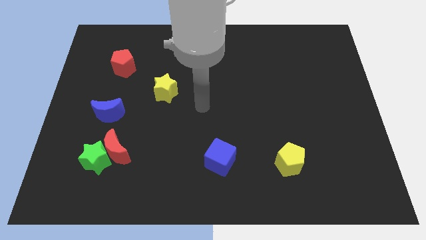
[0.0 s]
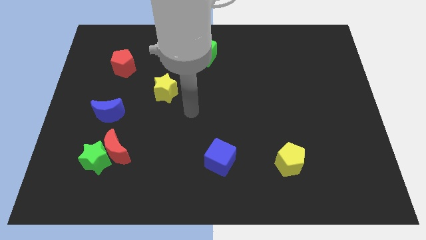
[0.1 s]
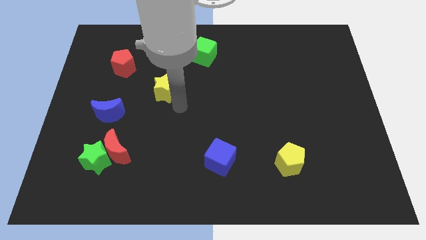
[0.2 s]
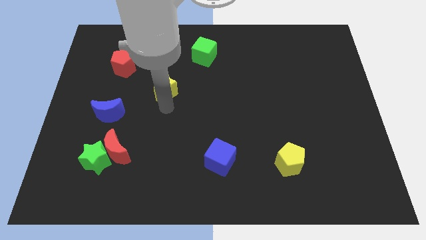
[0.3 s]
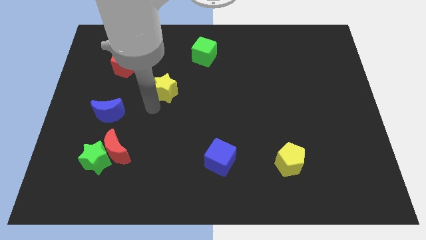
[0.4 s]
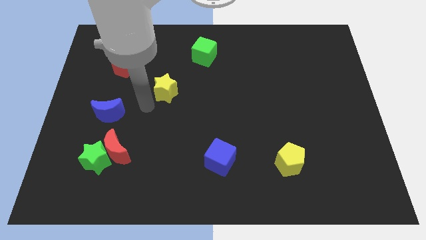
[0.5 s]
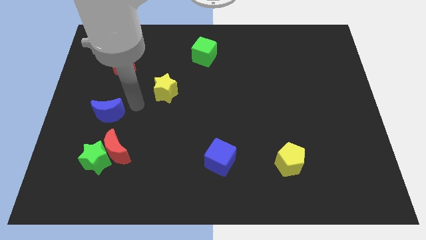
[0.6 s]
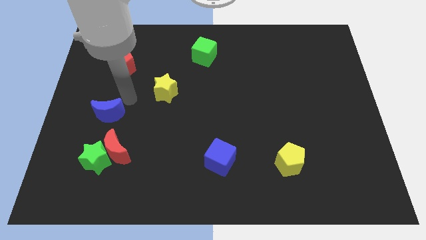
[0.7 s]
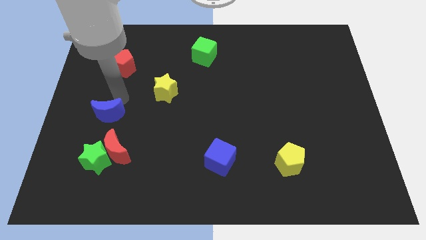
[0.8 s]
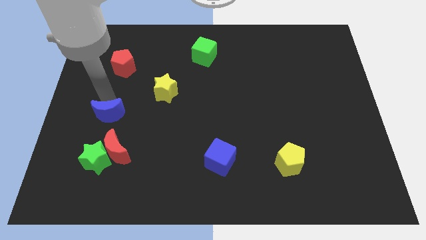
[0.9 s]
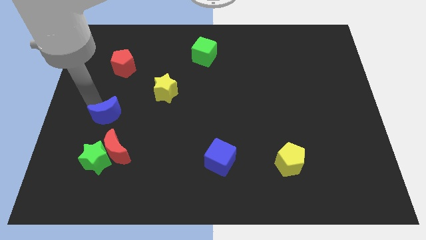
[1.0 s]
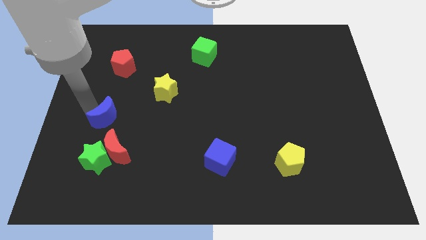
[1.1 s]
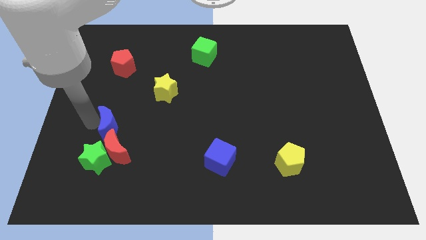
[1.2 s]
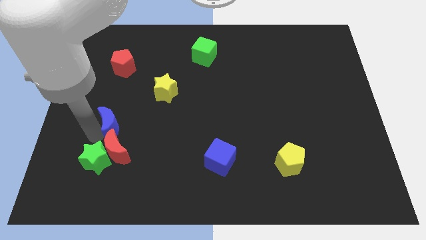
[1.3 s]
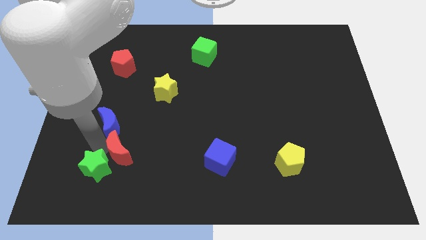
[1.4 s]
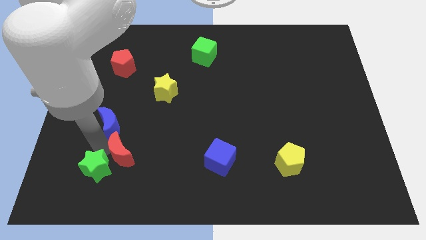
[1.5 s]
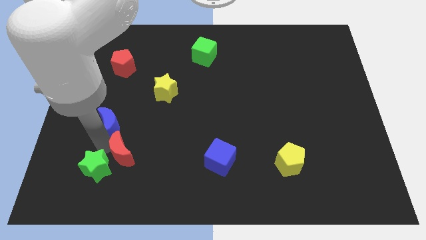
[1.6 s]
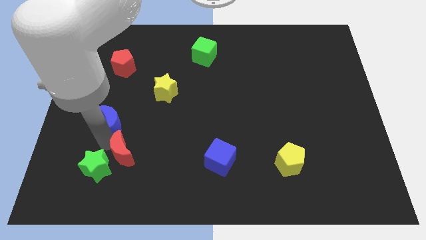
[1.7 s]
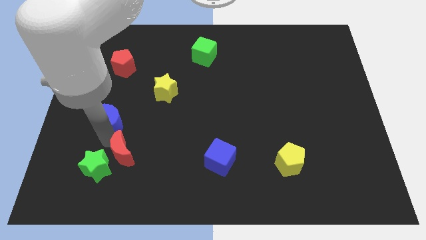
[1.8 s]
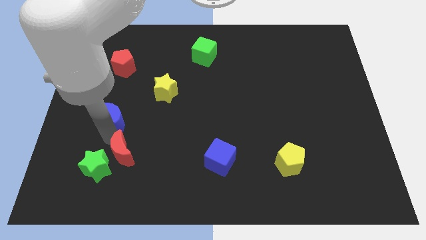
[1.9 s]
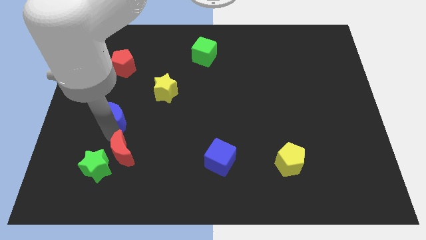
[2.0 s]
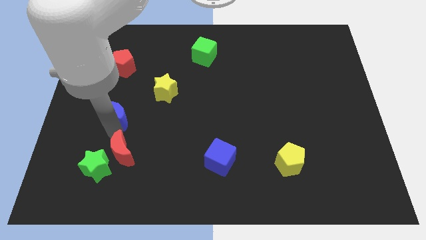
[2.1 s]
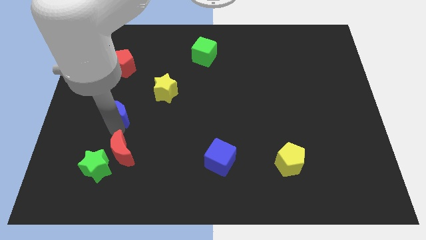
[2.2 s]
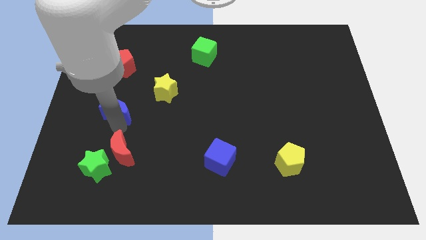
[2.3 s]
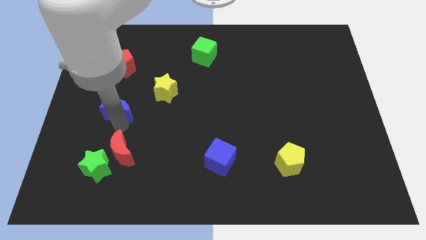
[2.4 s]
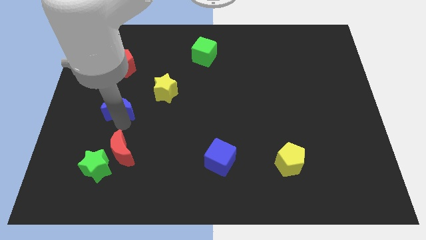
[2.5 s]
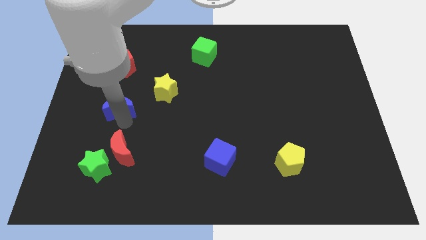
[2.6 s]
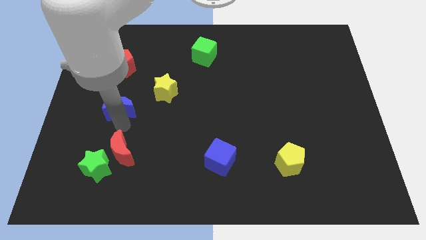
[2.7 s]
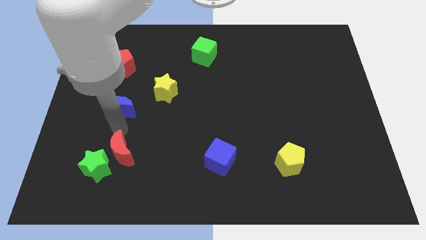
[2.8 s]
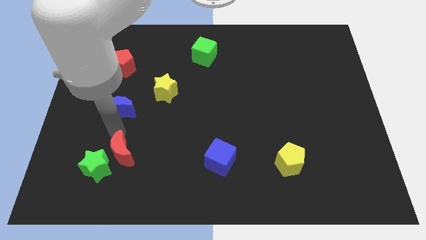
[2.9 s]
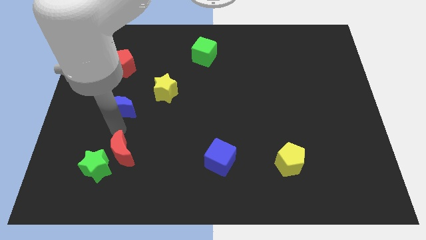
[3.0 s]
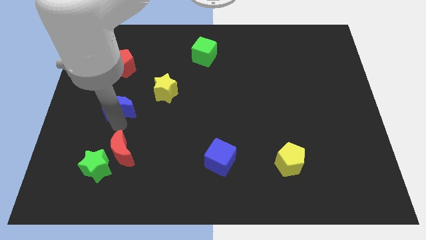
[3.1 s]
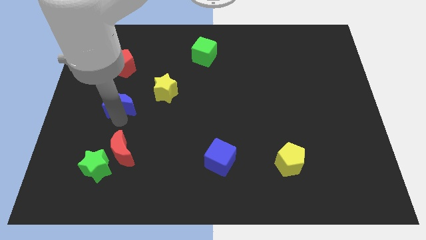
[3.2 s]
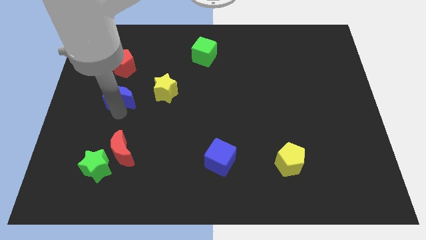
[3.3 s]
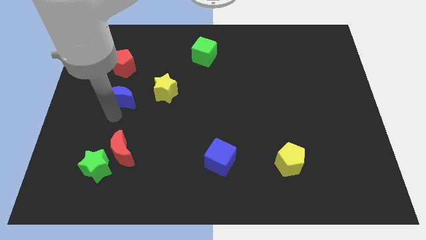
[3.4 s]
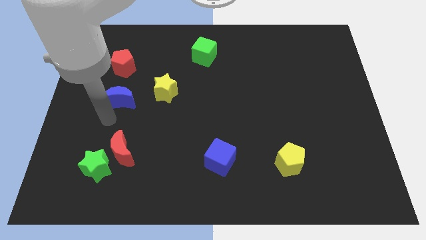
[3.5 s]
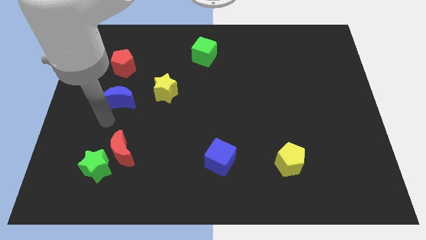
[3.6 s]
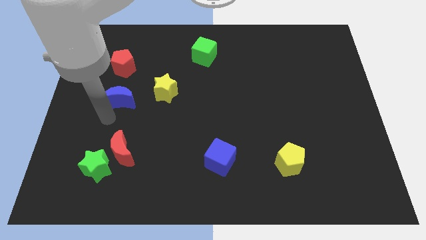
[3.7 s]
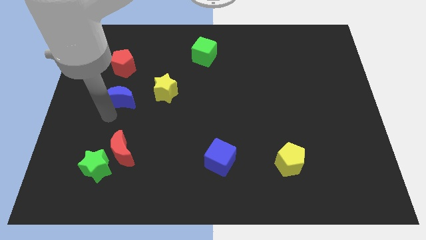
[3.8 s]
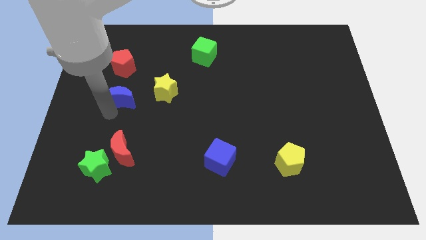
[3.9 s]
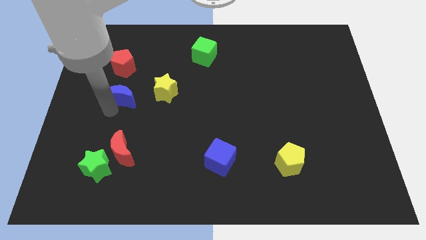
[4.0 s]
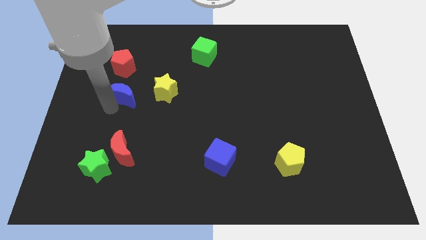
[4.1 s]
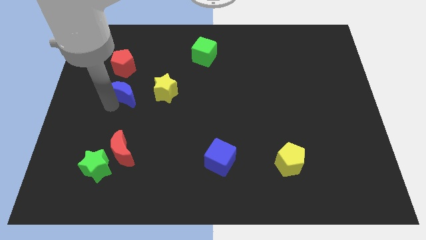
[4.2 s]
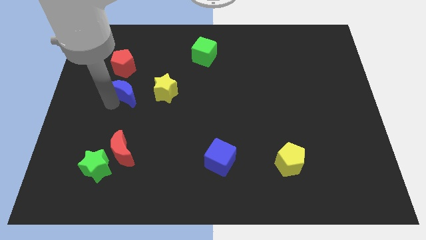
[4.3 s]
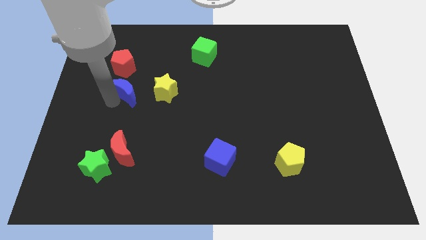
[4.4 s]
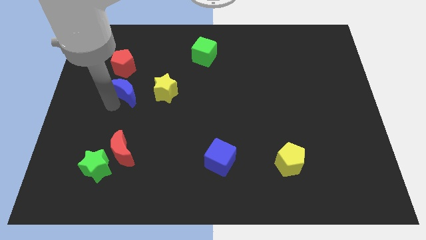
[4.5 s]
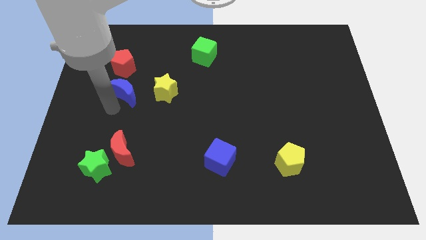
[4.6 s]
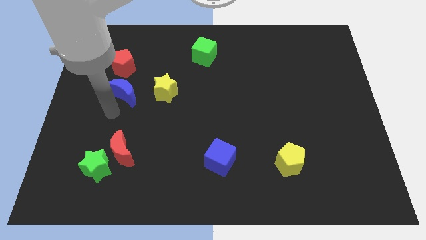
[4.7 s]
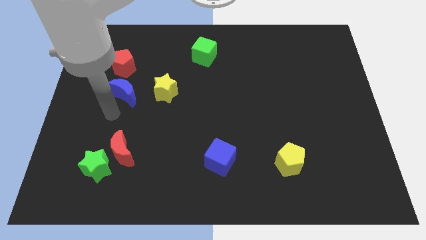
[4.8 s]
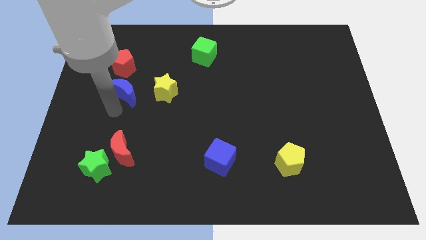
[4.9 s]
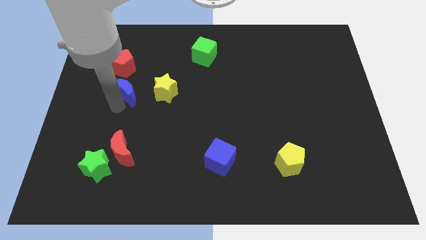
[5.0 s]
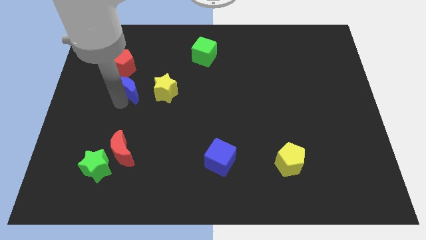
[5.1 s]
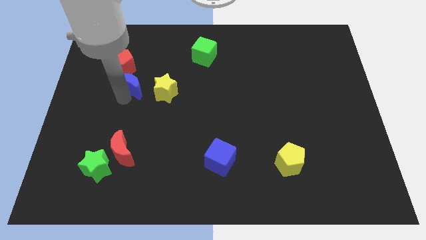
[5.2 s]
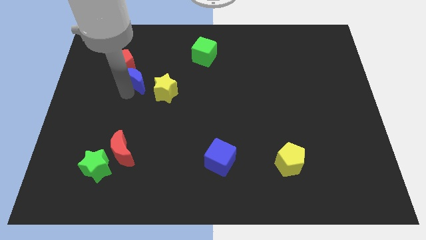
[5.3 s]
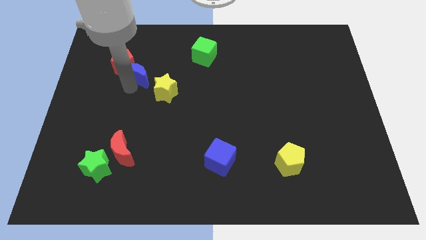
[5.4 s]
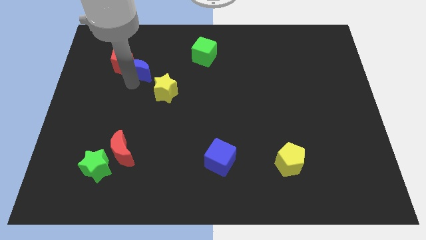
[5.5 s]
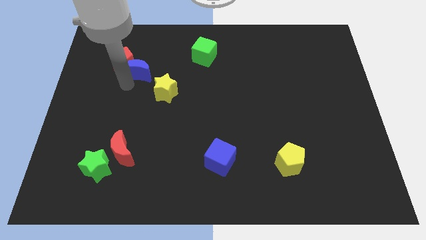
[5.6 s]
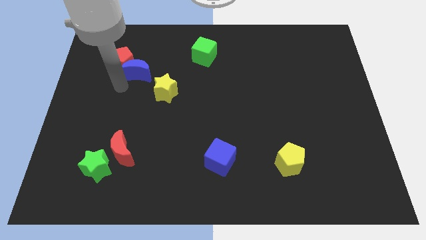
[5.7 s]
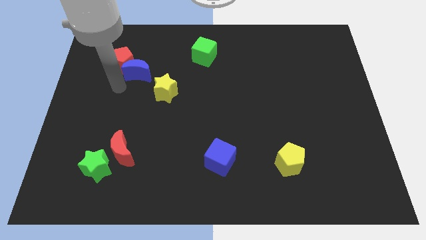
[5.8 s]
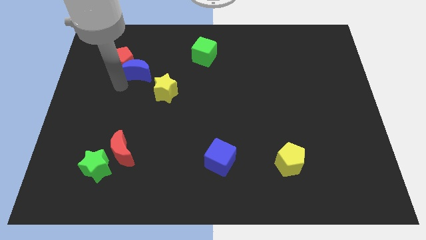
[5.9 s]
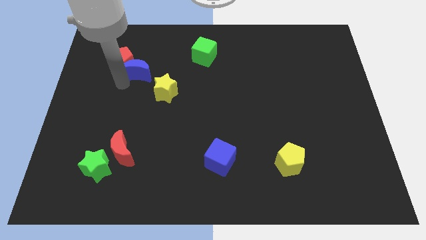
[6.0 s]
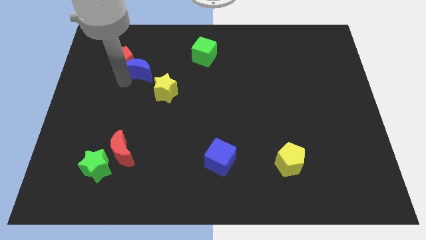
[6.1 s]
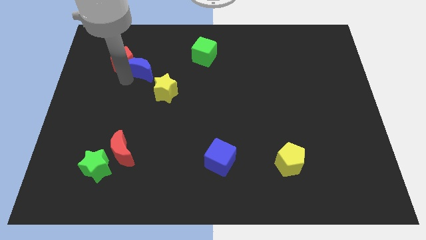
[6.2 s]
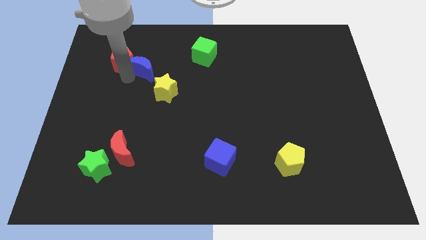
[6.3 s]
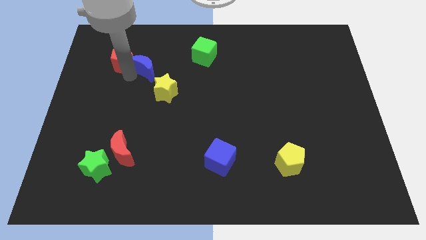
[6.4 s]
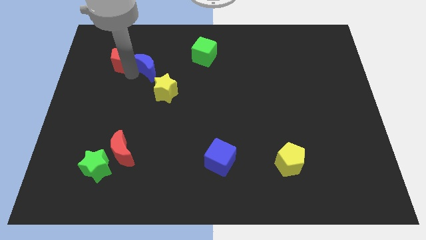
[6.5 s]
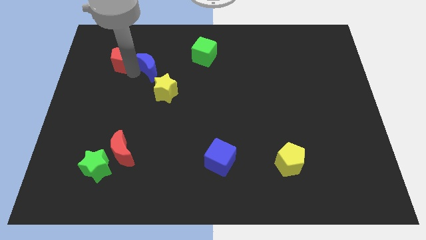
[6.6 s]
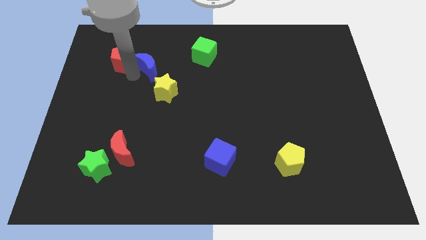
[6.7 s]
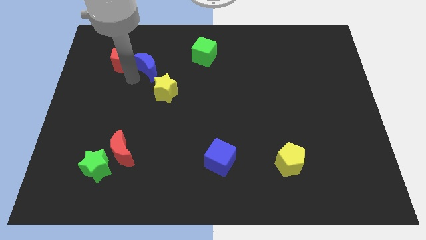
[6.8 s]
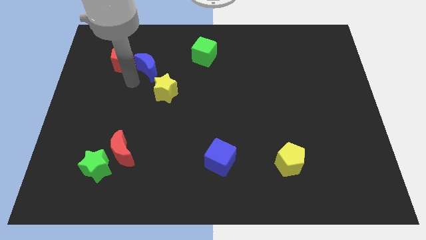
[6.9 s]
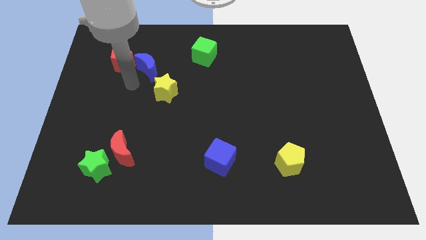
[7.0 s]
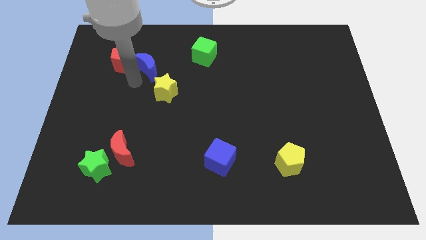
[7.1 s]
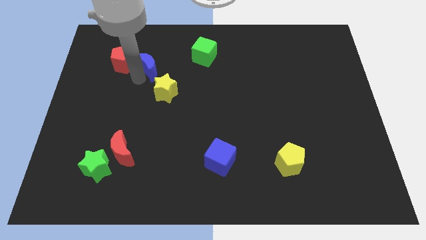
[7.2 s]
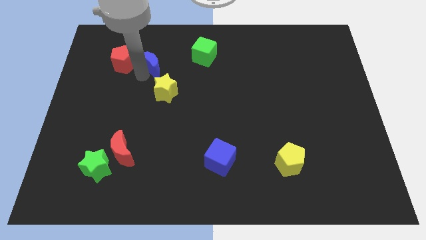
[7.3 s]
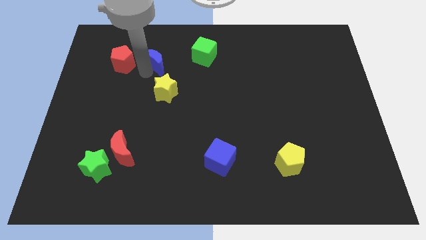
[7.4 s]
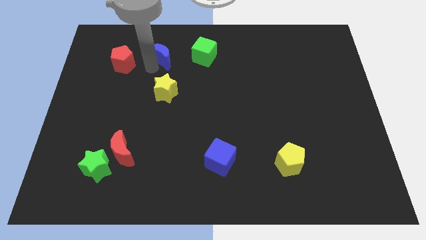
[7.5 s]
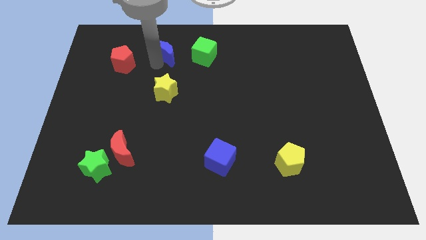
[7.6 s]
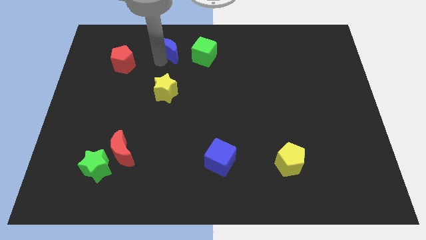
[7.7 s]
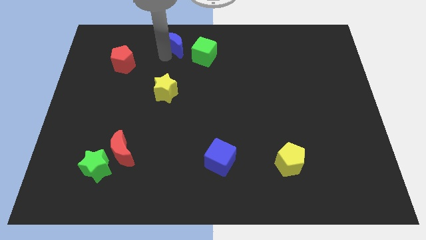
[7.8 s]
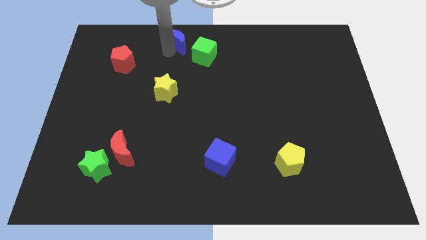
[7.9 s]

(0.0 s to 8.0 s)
slide the blue moon to the top side
